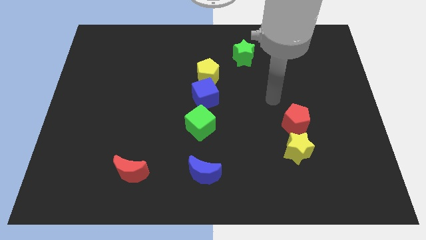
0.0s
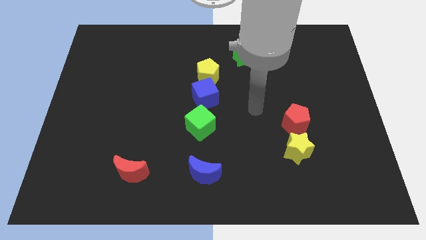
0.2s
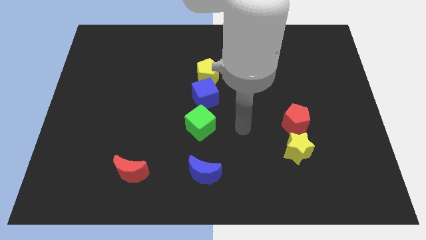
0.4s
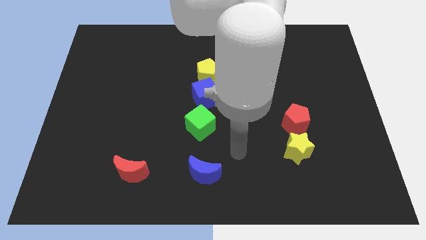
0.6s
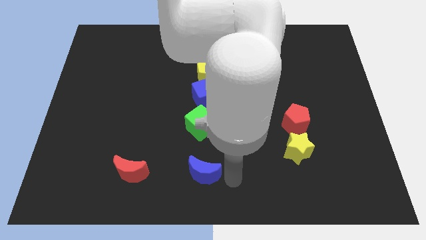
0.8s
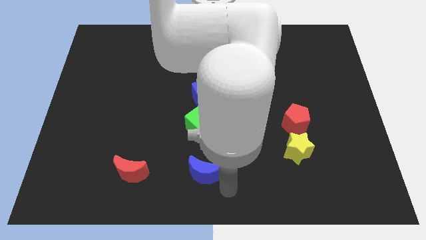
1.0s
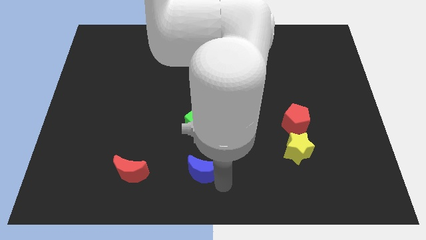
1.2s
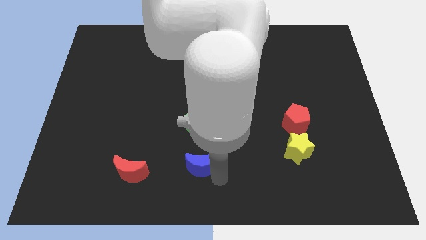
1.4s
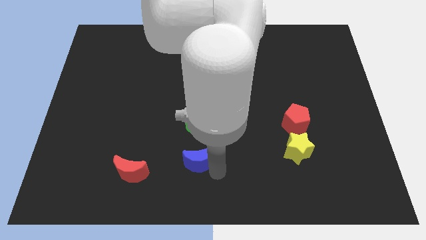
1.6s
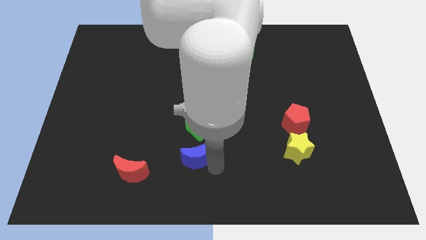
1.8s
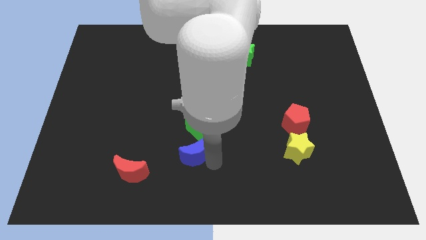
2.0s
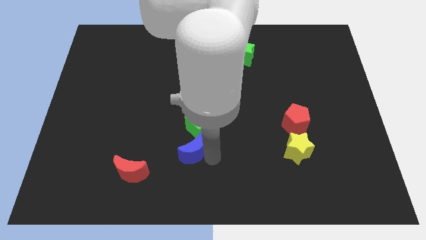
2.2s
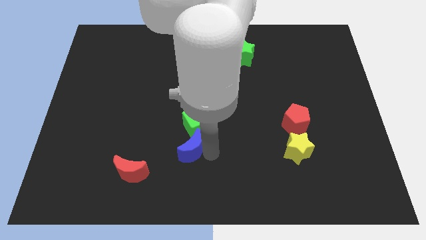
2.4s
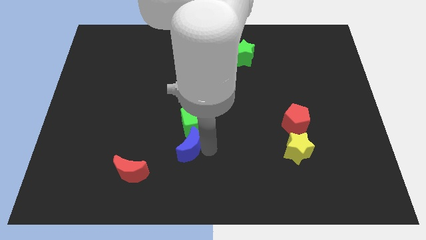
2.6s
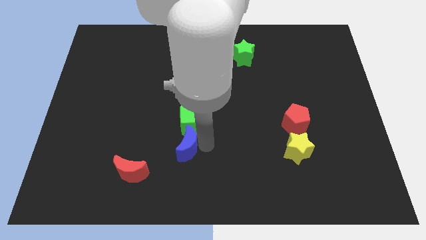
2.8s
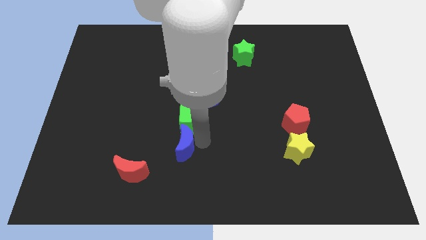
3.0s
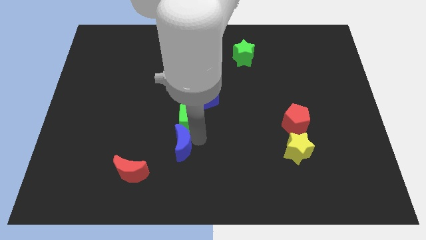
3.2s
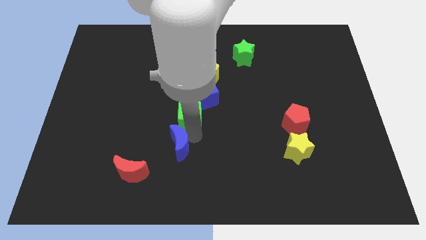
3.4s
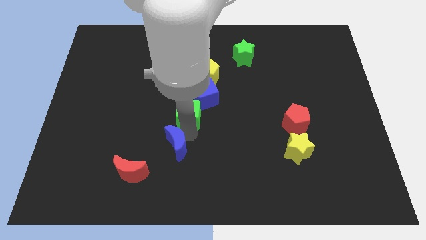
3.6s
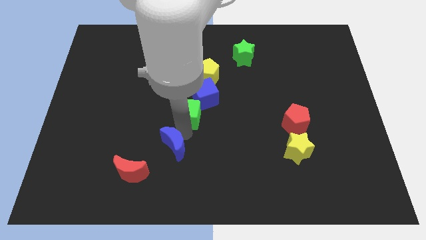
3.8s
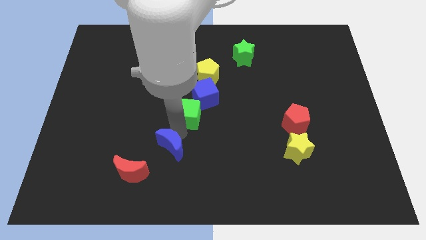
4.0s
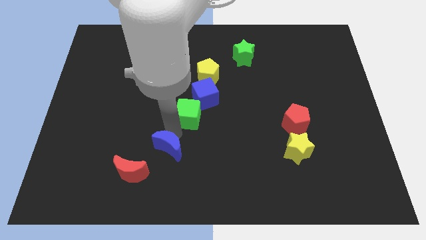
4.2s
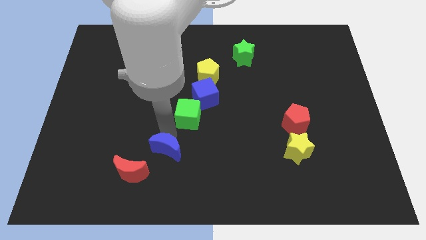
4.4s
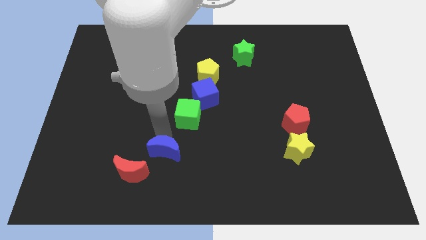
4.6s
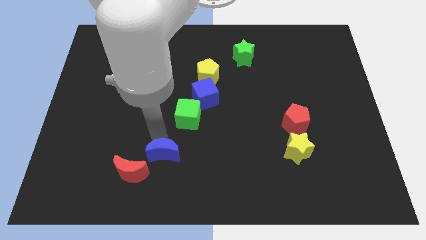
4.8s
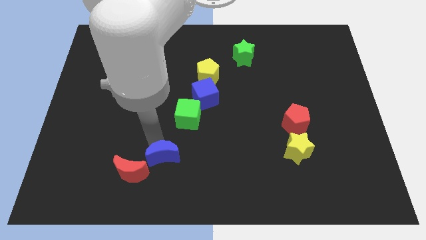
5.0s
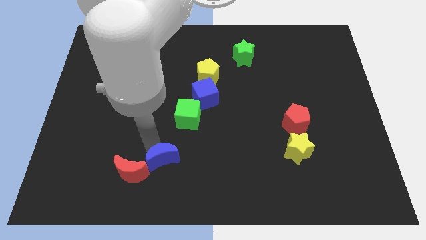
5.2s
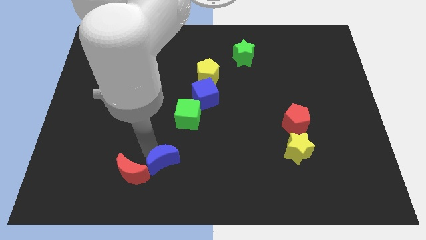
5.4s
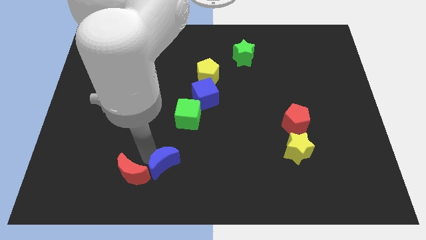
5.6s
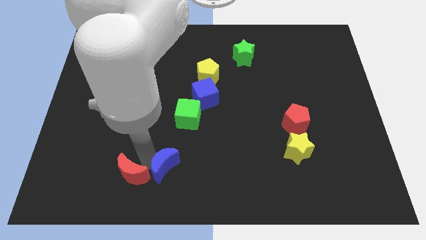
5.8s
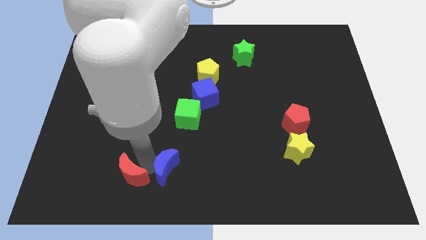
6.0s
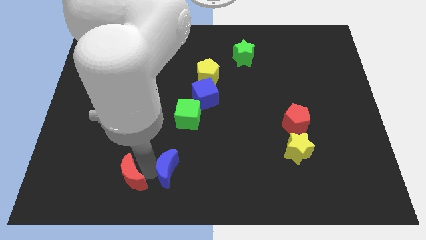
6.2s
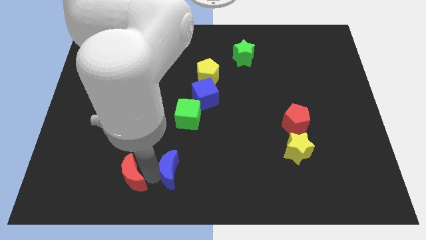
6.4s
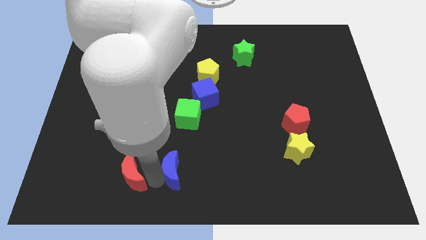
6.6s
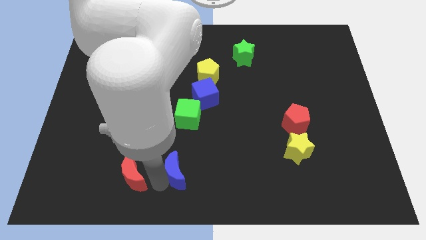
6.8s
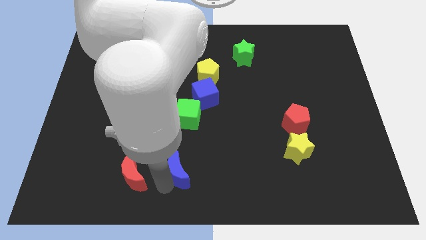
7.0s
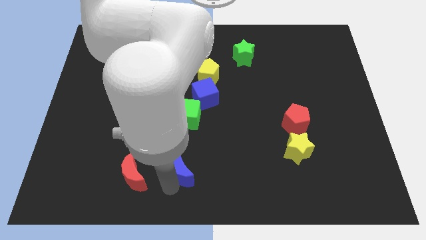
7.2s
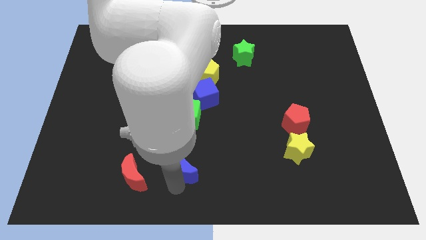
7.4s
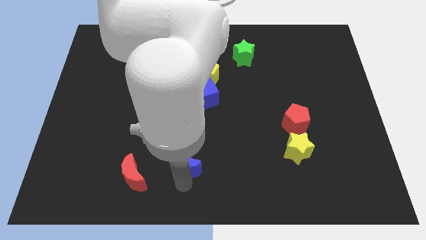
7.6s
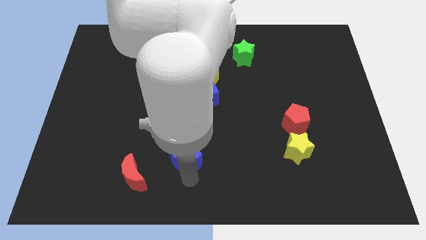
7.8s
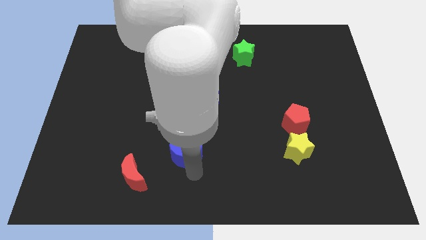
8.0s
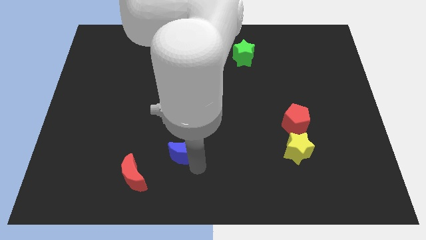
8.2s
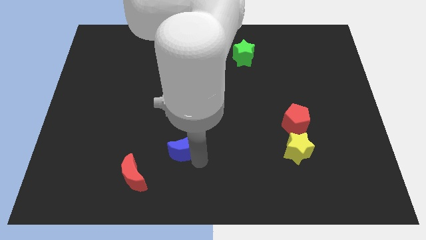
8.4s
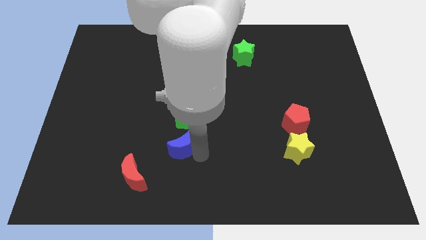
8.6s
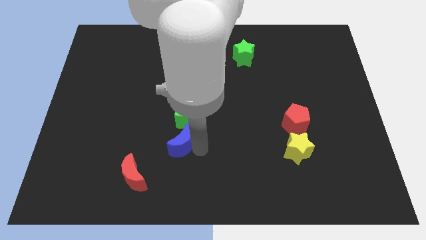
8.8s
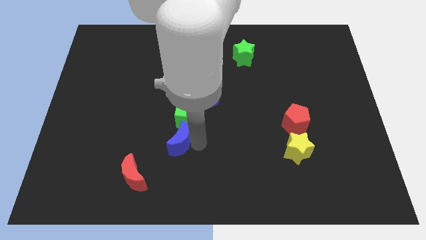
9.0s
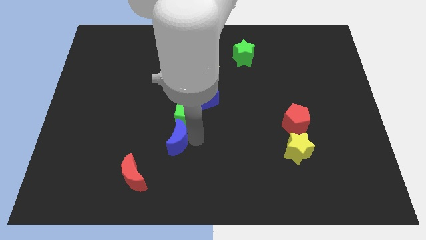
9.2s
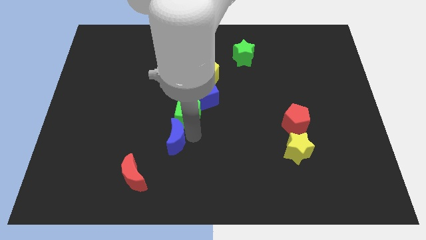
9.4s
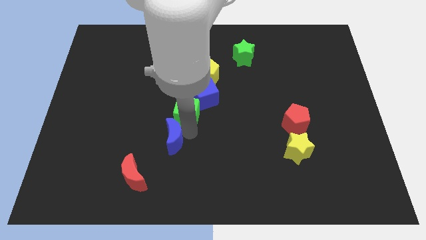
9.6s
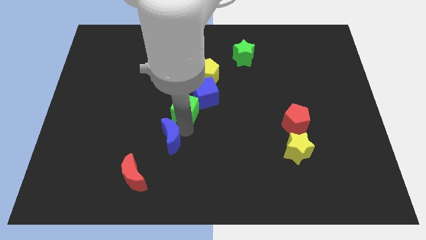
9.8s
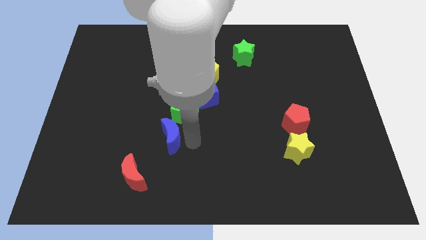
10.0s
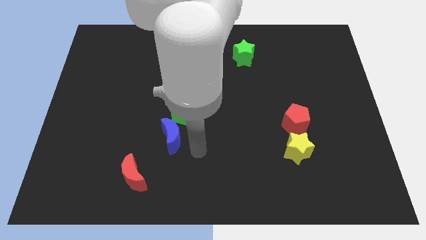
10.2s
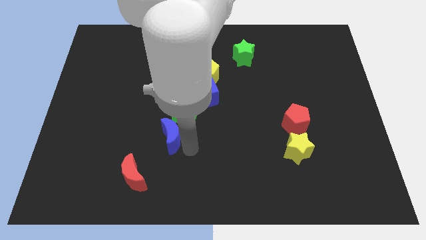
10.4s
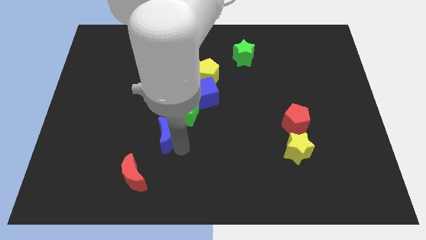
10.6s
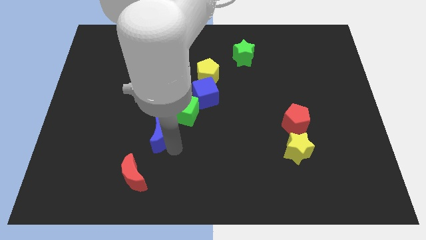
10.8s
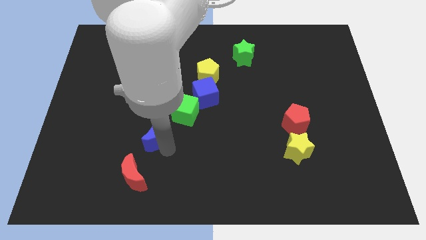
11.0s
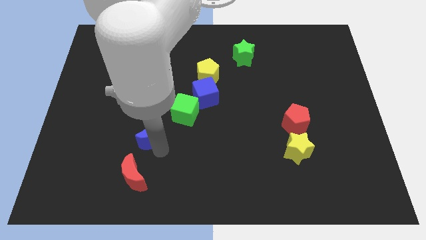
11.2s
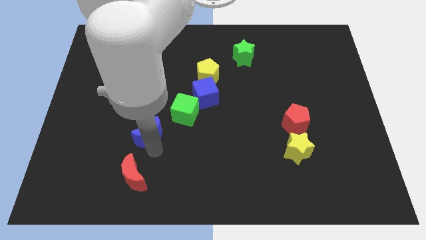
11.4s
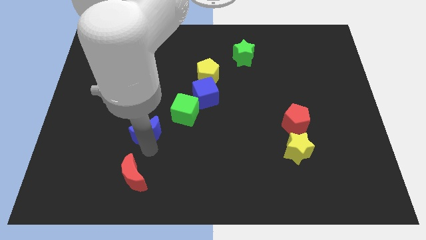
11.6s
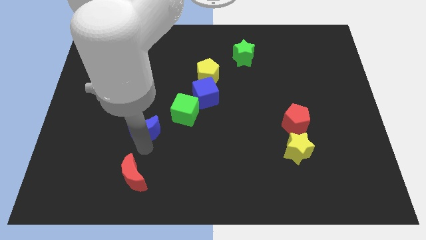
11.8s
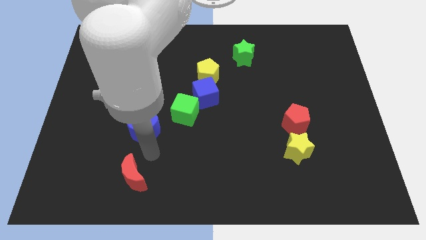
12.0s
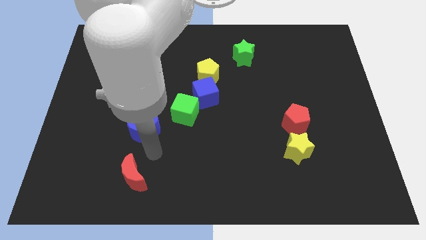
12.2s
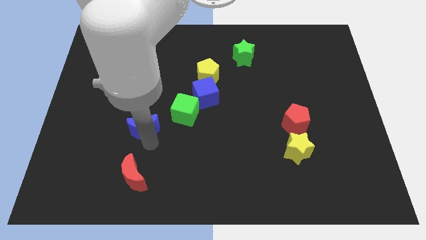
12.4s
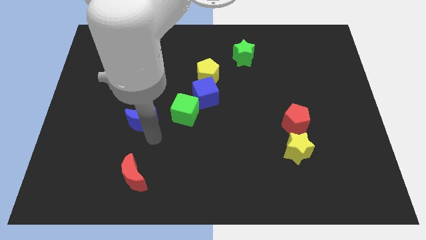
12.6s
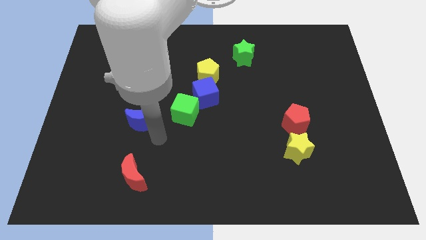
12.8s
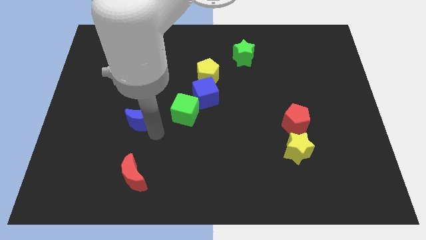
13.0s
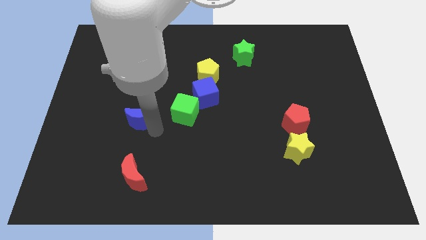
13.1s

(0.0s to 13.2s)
slide the blue moon up and left

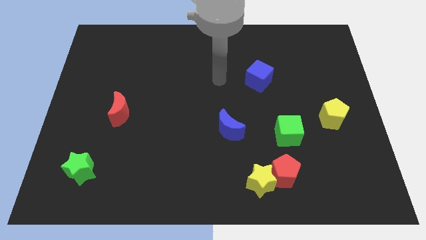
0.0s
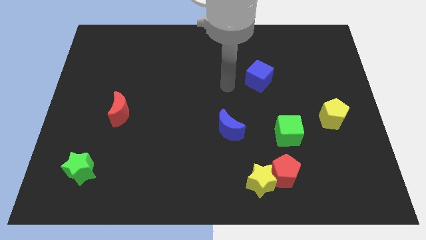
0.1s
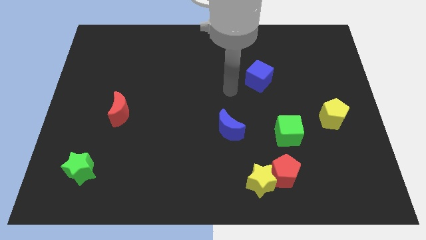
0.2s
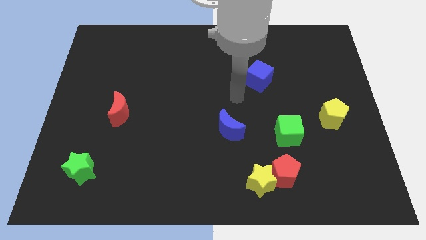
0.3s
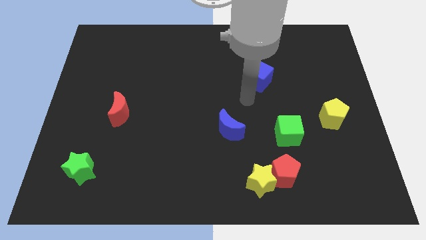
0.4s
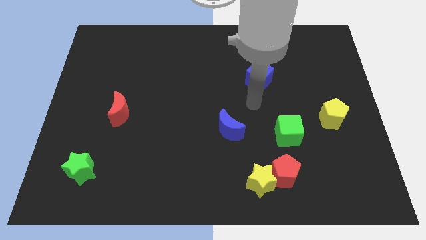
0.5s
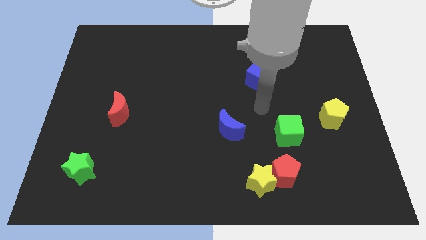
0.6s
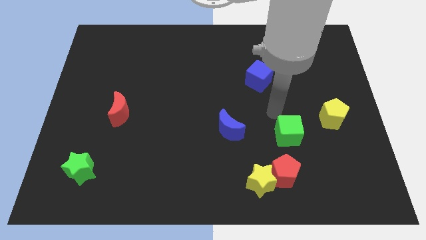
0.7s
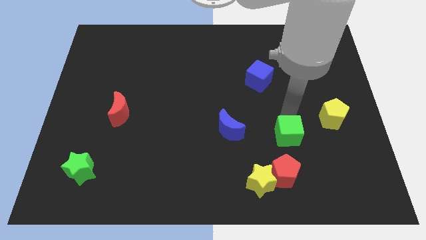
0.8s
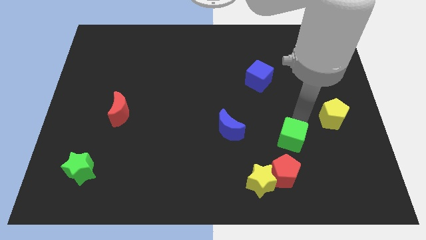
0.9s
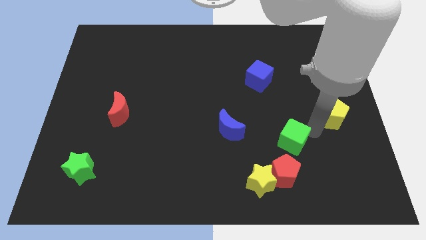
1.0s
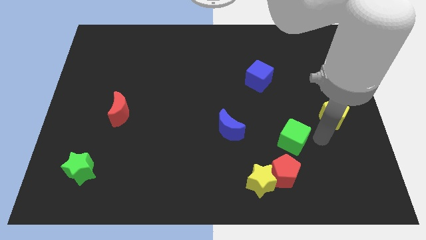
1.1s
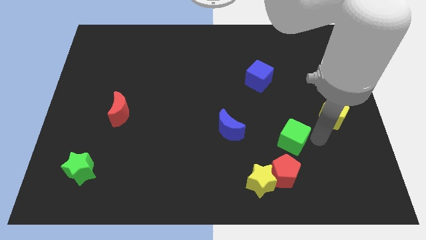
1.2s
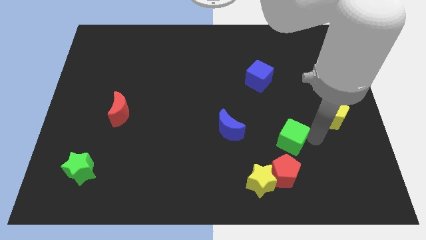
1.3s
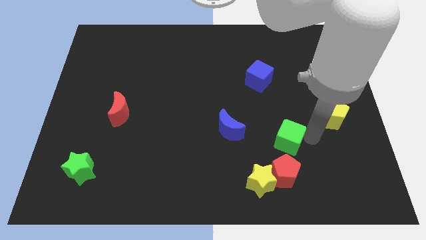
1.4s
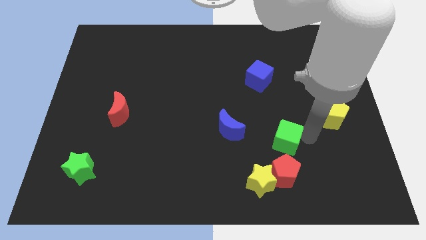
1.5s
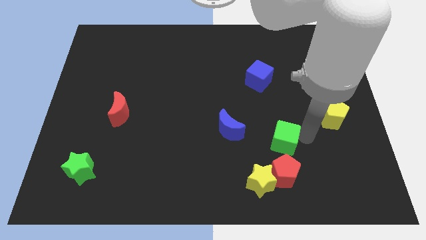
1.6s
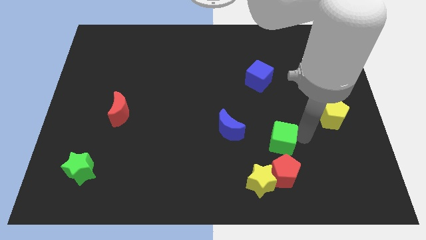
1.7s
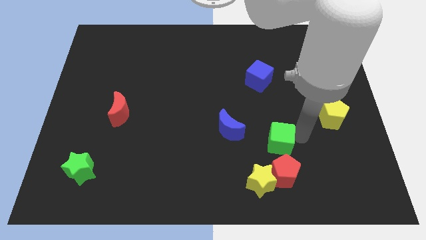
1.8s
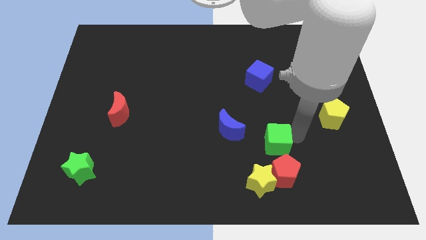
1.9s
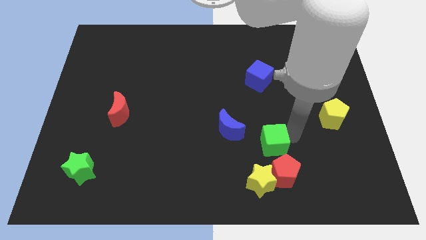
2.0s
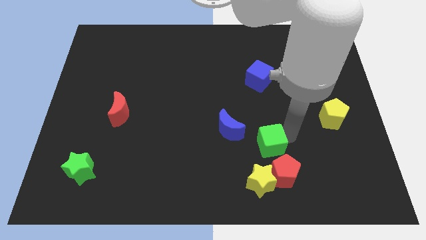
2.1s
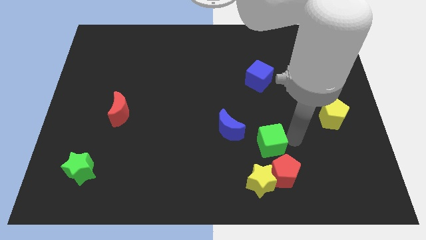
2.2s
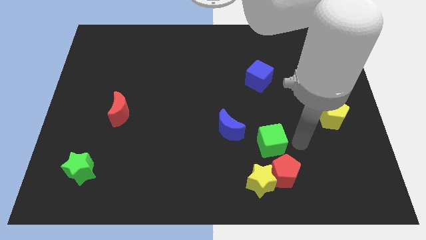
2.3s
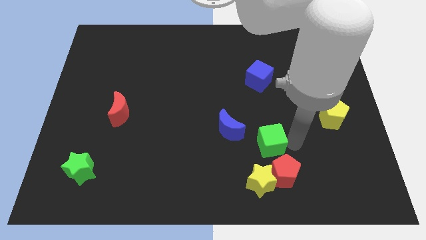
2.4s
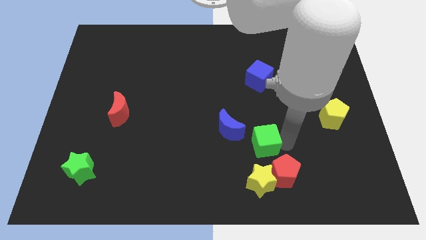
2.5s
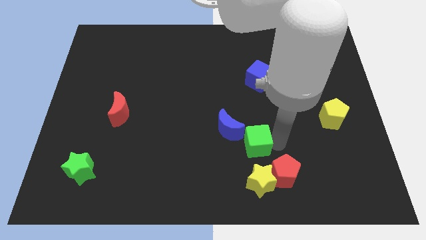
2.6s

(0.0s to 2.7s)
slide the green cube somewhat left
